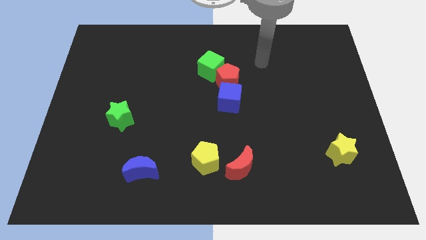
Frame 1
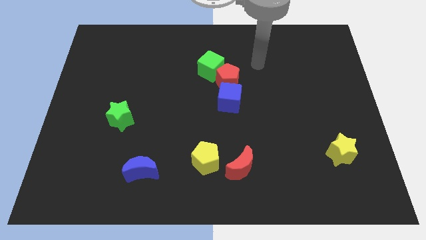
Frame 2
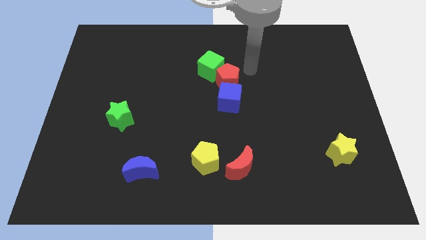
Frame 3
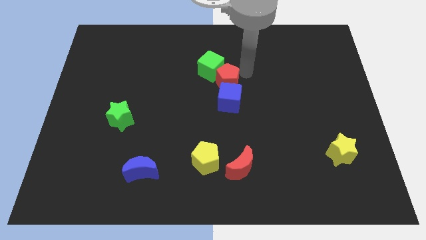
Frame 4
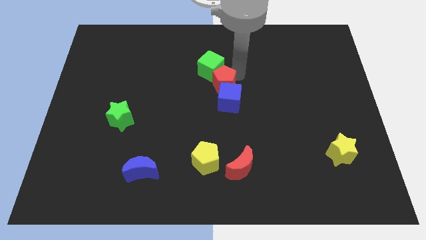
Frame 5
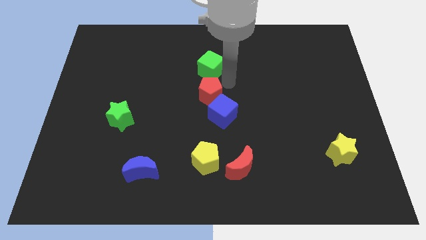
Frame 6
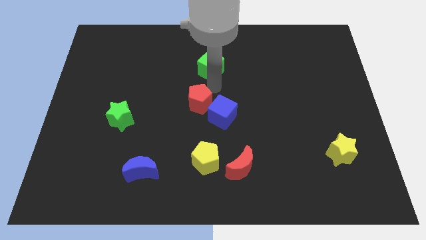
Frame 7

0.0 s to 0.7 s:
separate the green cube from the red pentagon

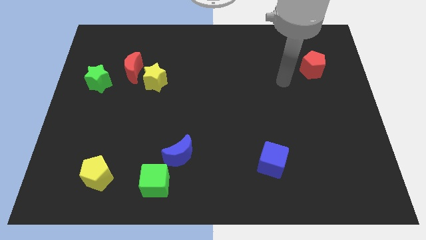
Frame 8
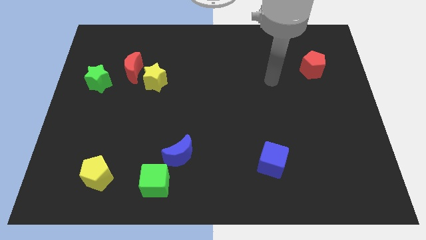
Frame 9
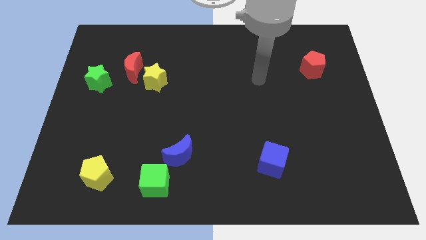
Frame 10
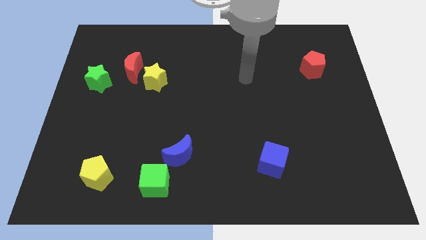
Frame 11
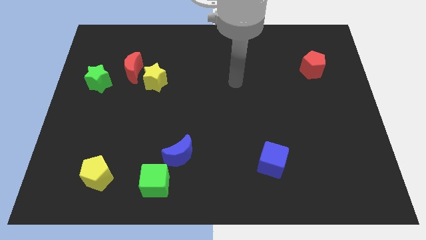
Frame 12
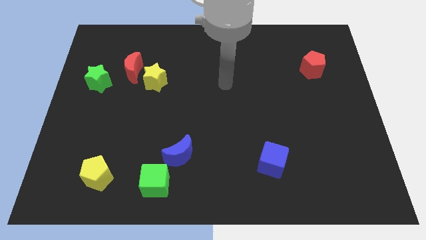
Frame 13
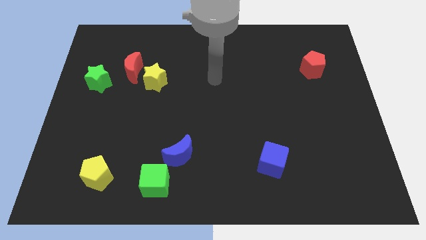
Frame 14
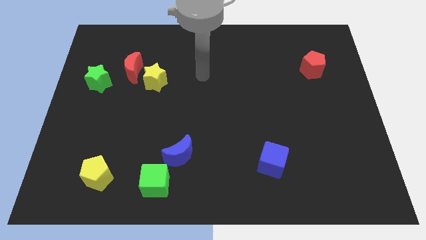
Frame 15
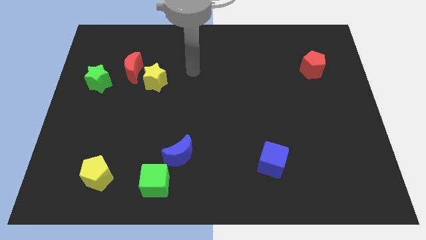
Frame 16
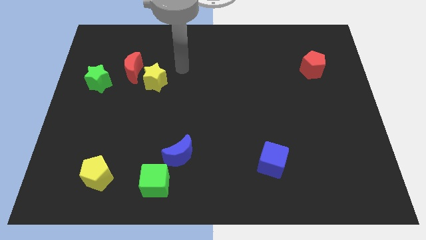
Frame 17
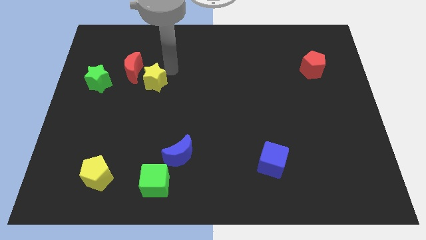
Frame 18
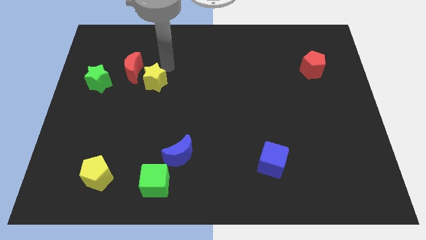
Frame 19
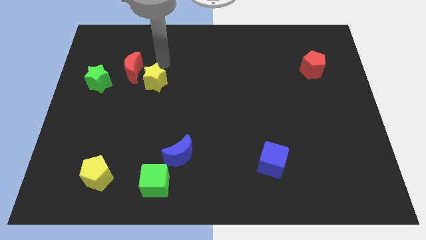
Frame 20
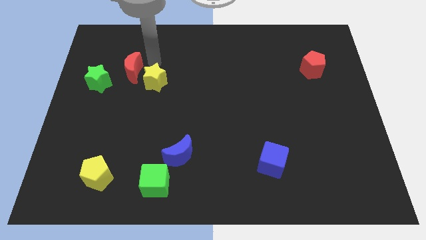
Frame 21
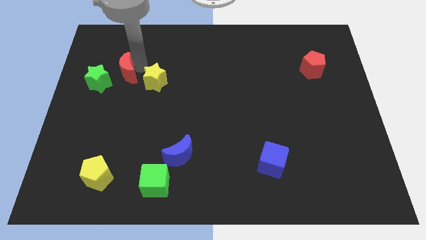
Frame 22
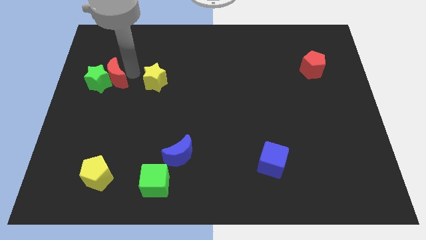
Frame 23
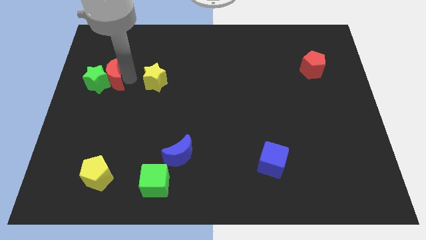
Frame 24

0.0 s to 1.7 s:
move the yellow star away from the red moon

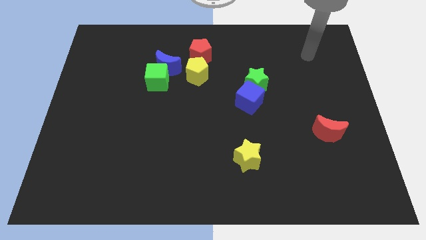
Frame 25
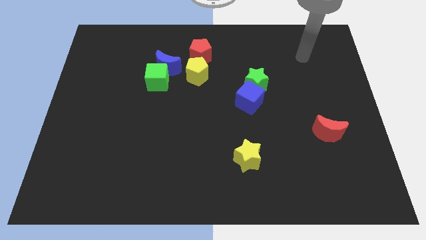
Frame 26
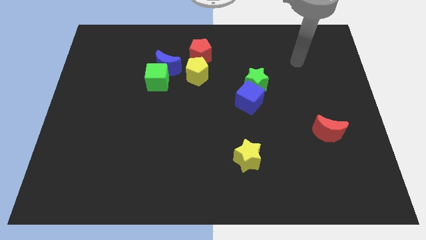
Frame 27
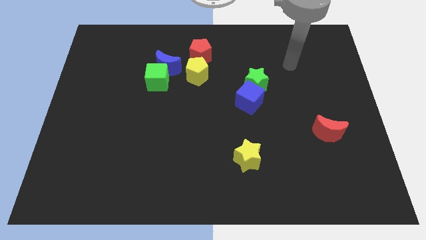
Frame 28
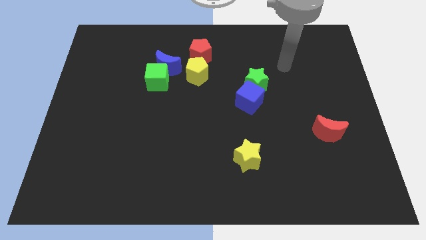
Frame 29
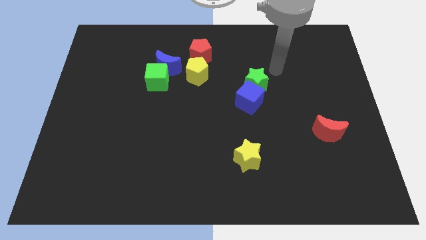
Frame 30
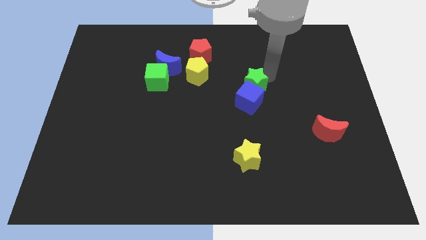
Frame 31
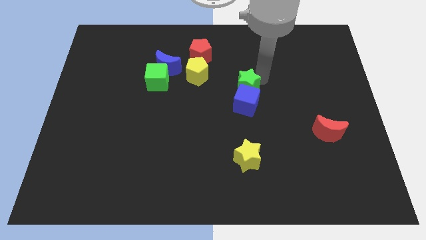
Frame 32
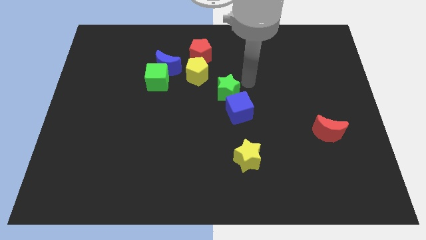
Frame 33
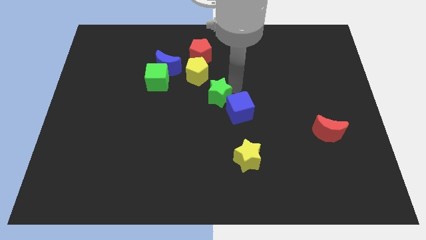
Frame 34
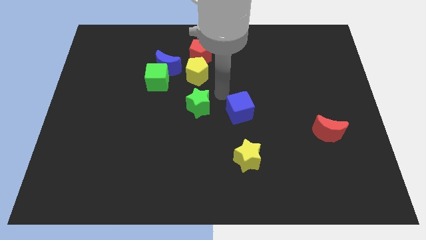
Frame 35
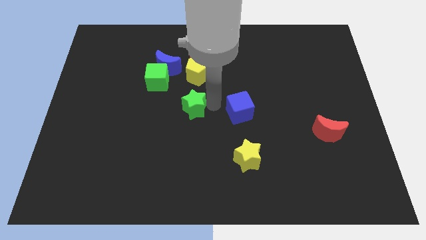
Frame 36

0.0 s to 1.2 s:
pull the blue cube apart from the green star

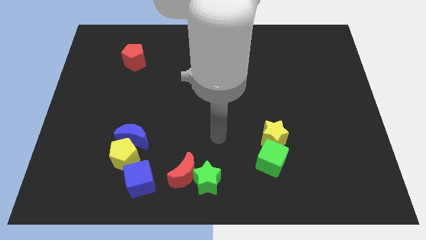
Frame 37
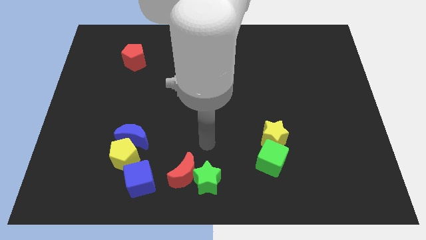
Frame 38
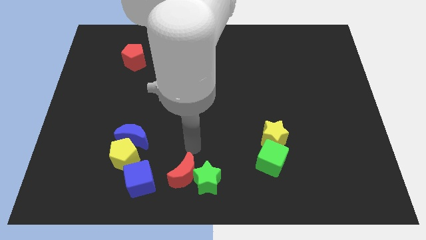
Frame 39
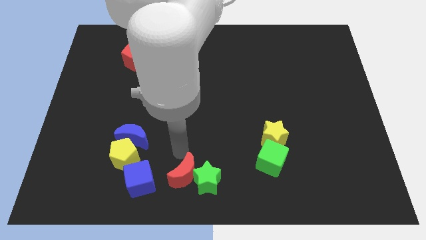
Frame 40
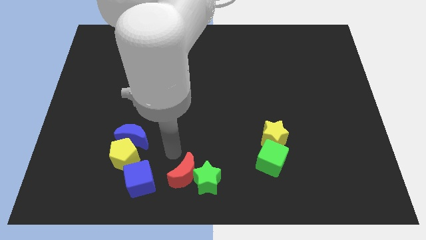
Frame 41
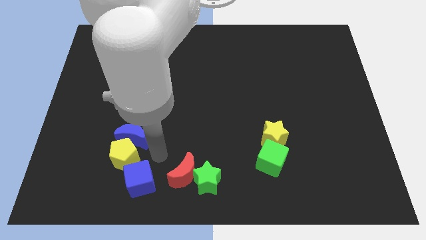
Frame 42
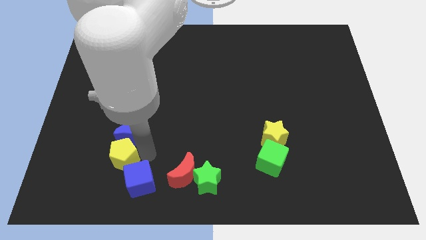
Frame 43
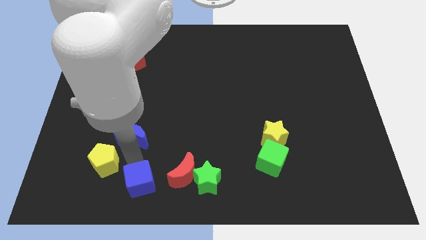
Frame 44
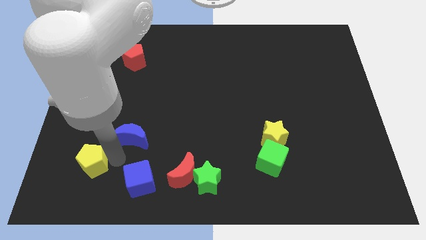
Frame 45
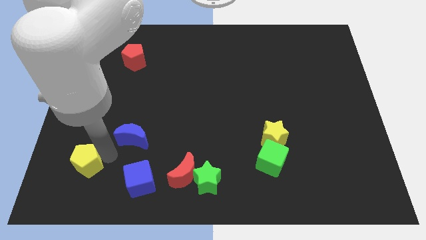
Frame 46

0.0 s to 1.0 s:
move the blue moon away from the yellow pentagon

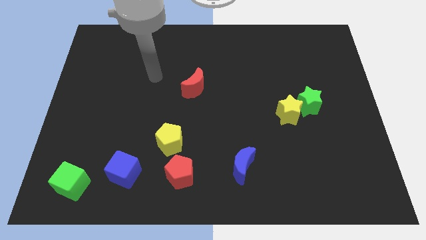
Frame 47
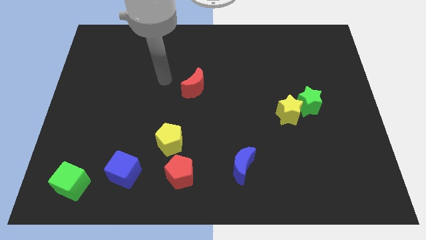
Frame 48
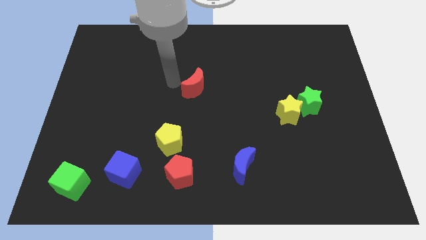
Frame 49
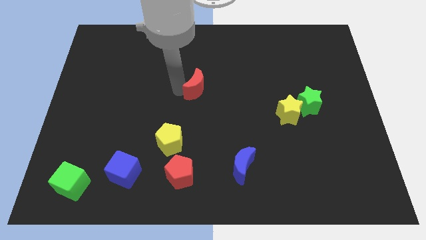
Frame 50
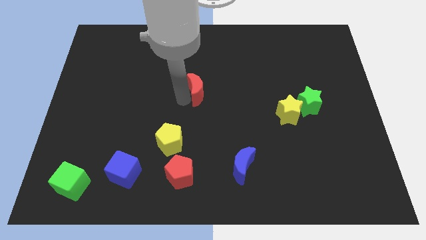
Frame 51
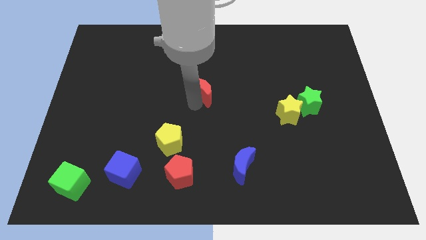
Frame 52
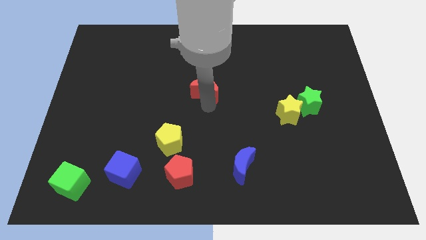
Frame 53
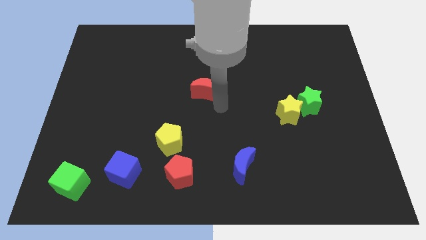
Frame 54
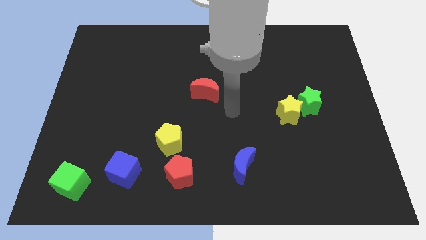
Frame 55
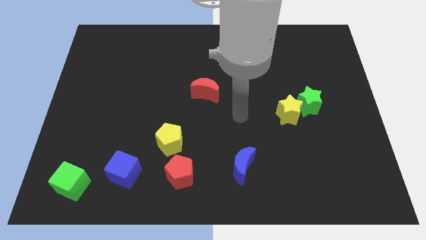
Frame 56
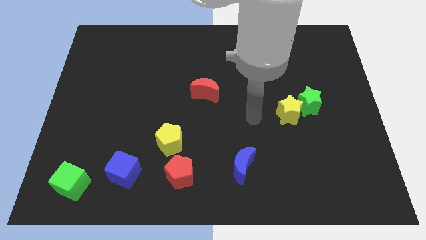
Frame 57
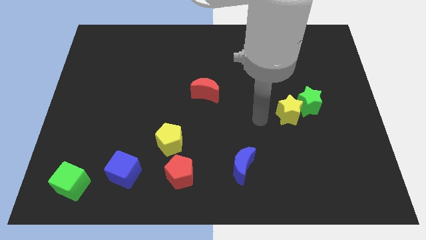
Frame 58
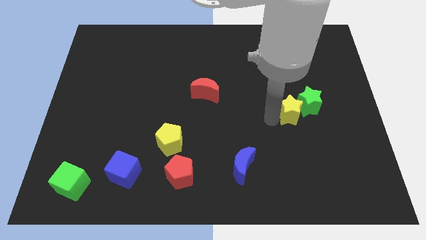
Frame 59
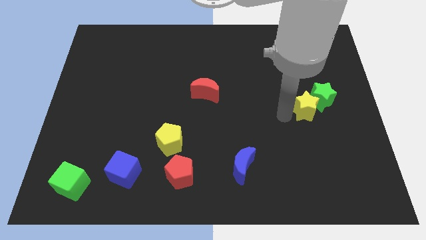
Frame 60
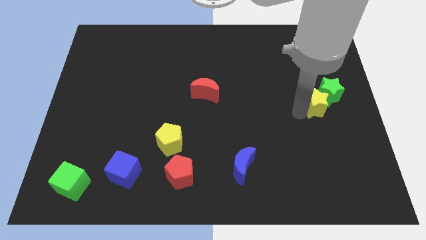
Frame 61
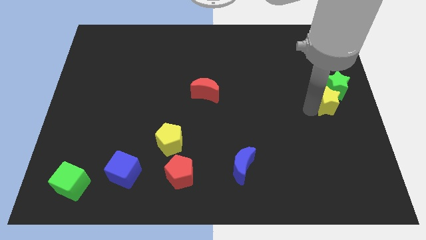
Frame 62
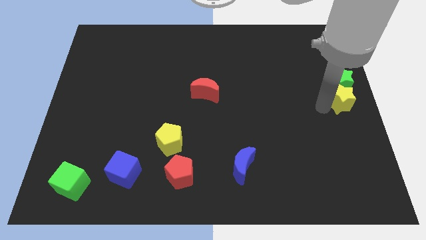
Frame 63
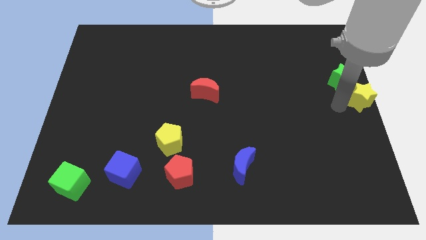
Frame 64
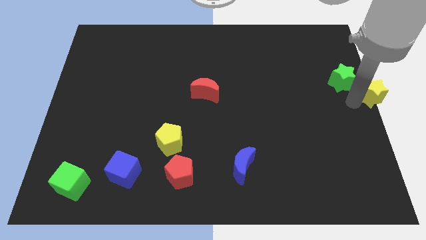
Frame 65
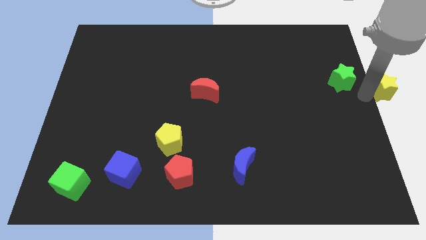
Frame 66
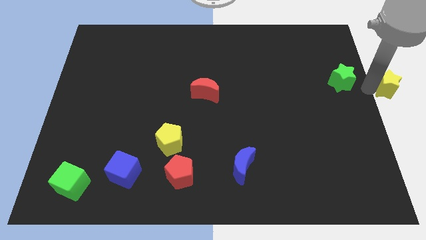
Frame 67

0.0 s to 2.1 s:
pull the green star apart from the yellow star

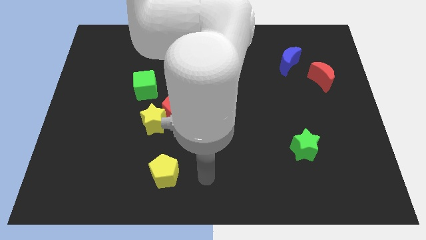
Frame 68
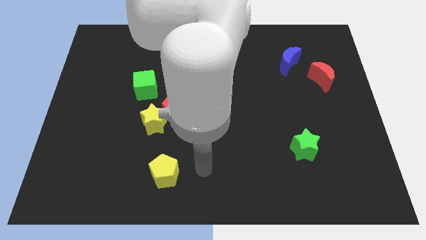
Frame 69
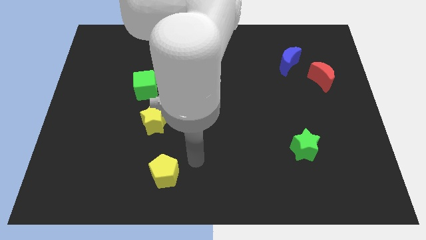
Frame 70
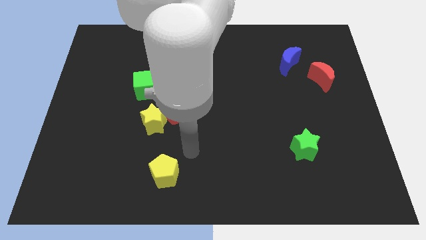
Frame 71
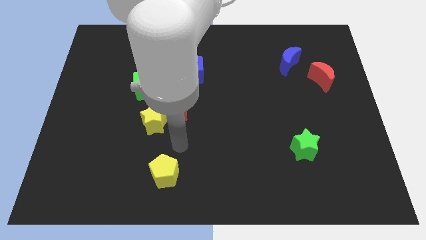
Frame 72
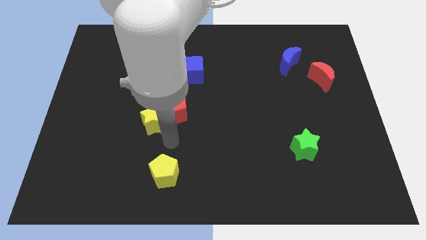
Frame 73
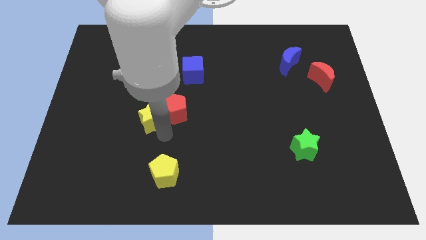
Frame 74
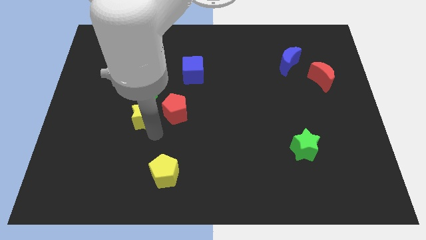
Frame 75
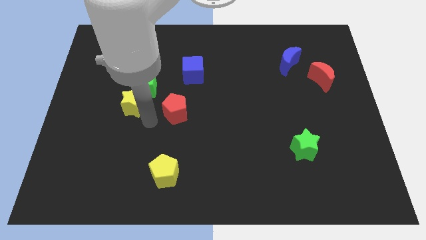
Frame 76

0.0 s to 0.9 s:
move the red pentagon away from the yellow star

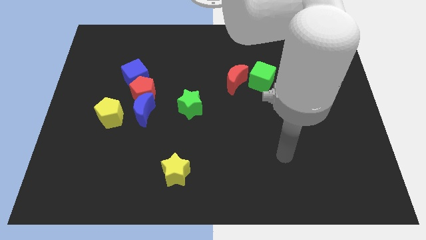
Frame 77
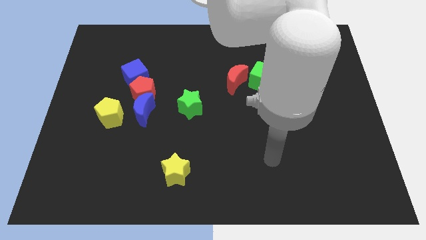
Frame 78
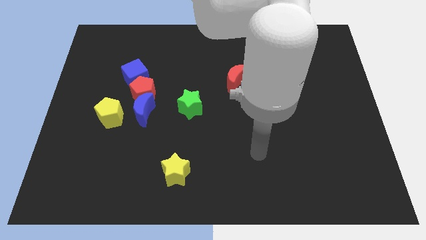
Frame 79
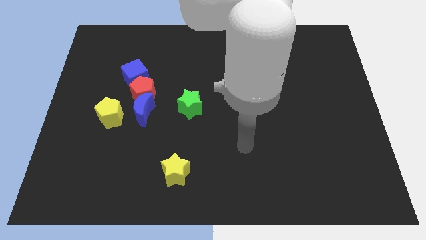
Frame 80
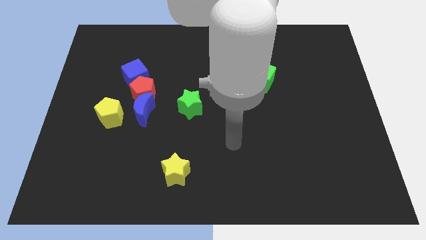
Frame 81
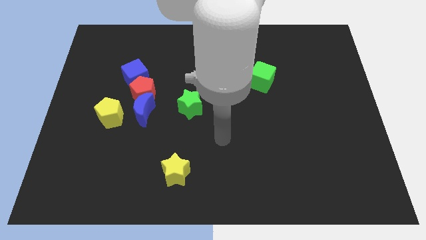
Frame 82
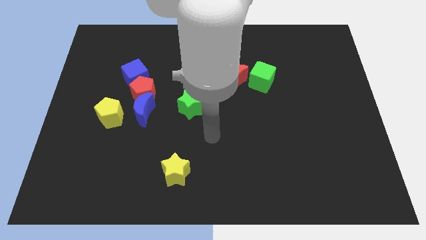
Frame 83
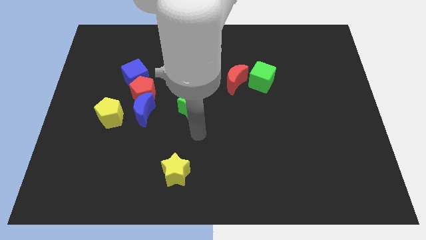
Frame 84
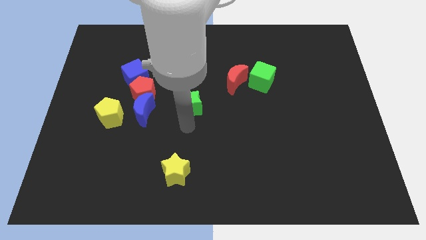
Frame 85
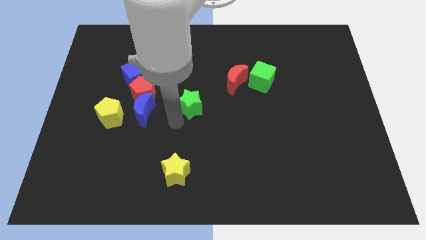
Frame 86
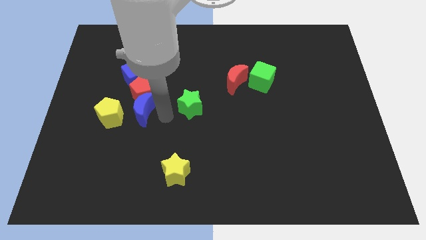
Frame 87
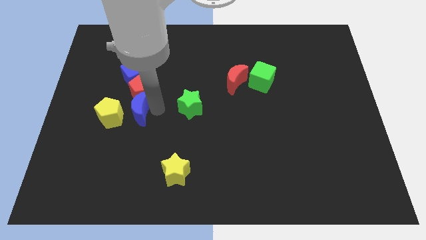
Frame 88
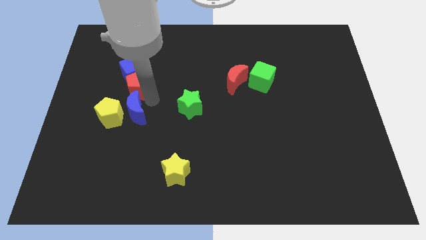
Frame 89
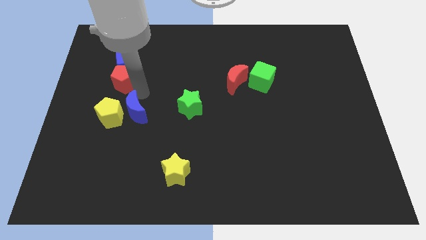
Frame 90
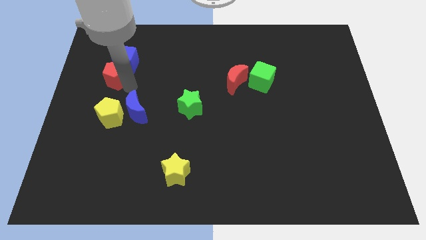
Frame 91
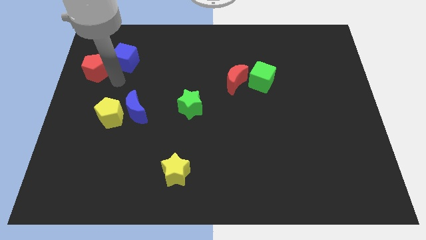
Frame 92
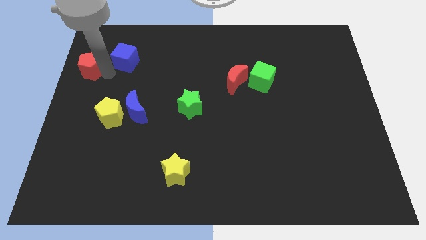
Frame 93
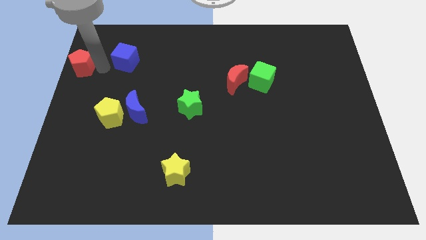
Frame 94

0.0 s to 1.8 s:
pull the blue cube apart from the red pentagon
